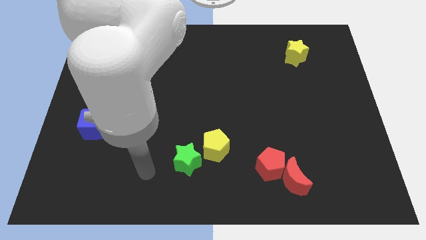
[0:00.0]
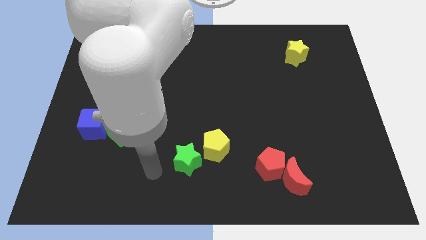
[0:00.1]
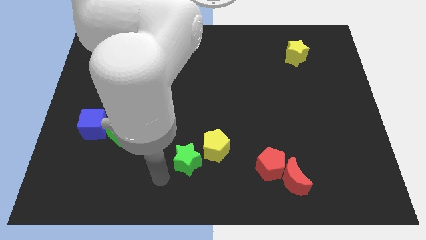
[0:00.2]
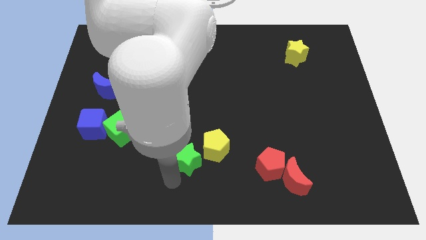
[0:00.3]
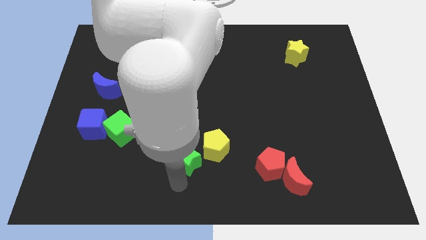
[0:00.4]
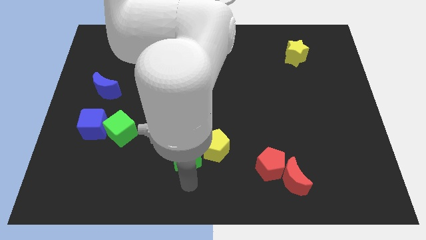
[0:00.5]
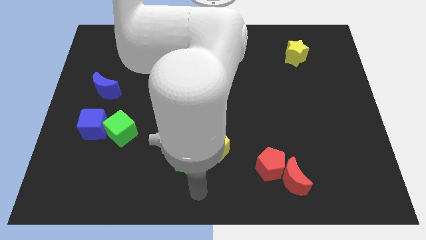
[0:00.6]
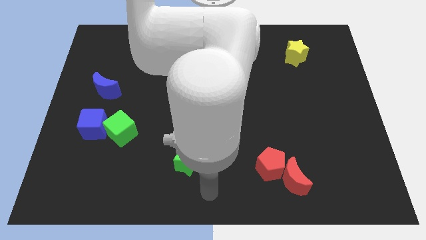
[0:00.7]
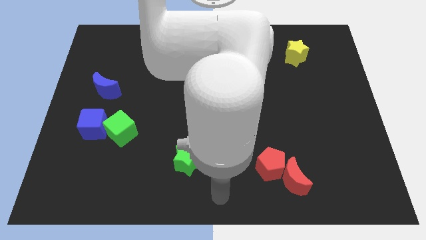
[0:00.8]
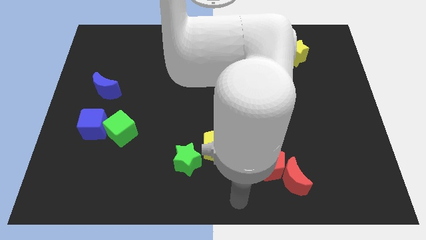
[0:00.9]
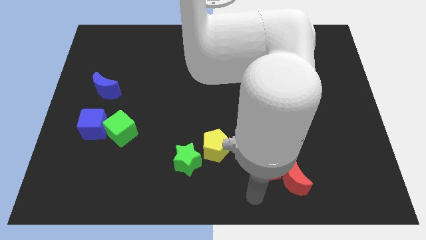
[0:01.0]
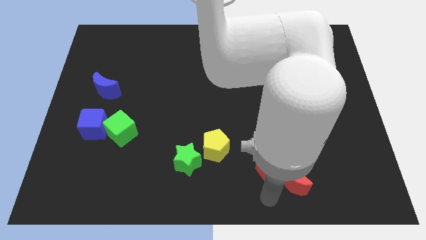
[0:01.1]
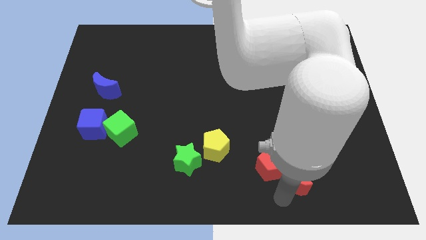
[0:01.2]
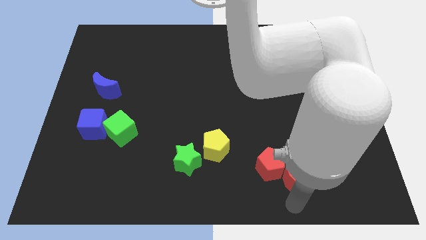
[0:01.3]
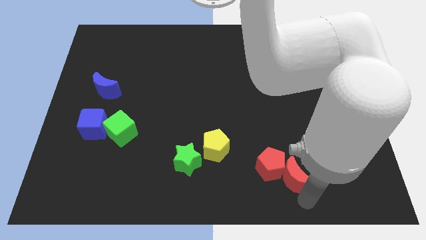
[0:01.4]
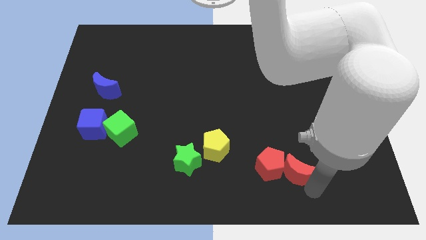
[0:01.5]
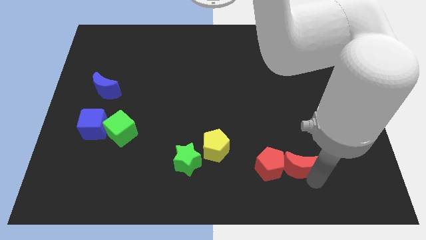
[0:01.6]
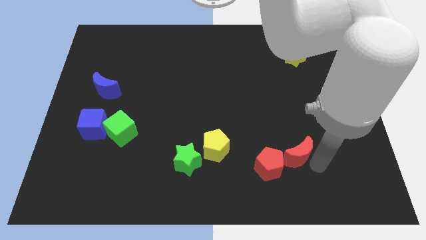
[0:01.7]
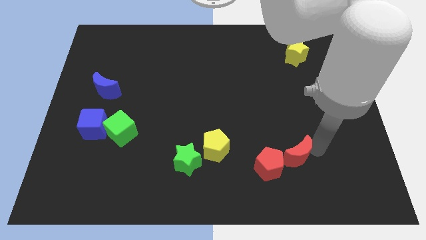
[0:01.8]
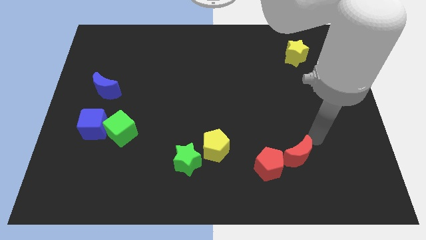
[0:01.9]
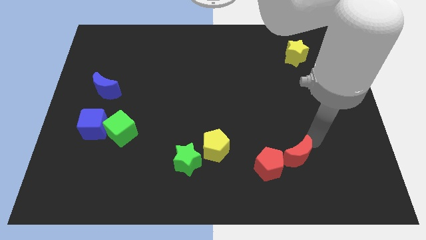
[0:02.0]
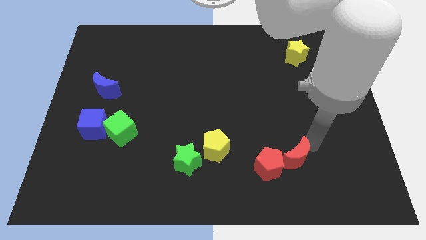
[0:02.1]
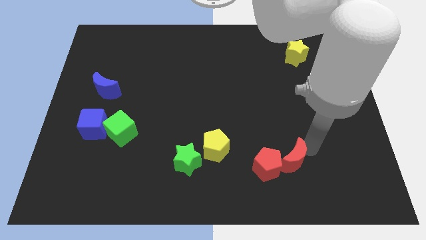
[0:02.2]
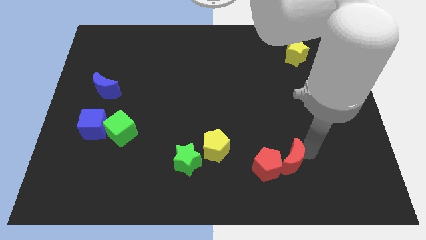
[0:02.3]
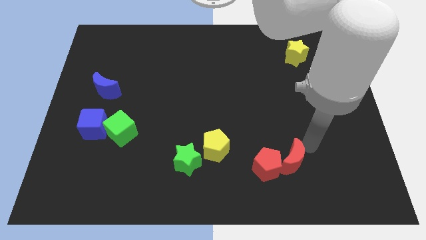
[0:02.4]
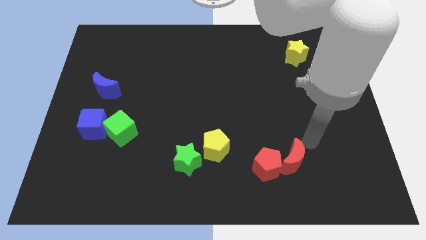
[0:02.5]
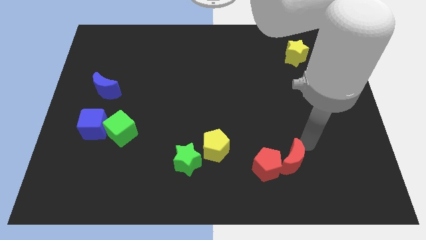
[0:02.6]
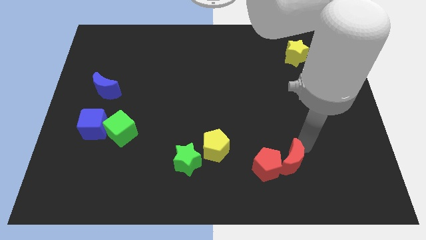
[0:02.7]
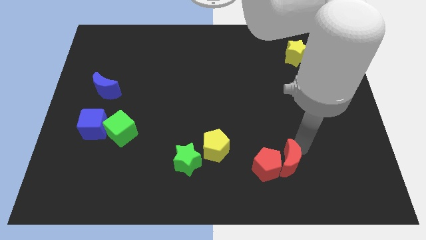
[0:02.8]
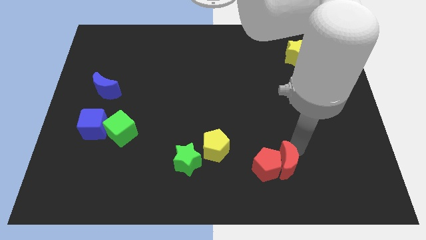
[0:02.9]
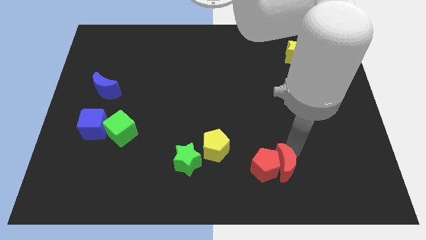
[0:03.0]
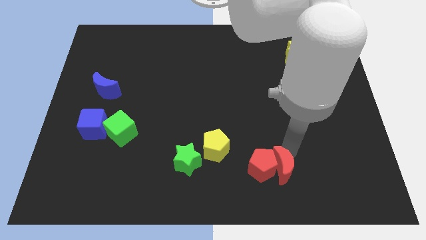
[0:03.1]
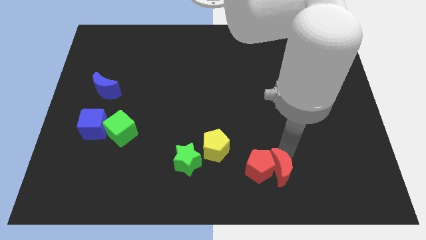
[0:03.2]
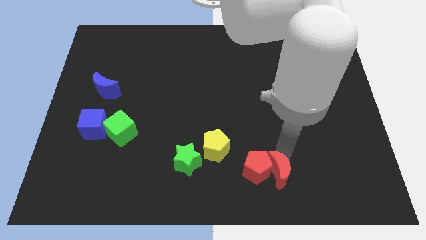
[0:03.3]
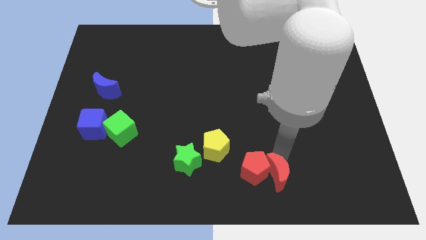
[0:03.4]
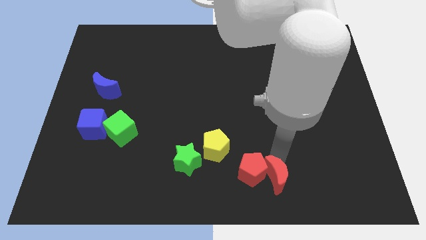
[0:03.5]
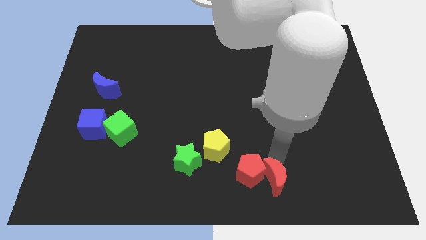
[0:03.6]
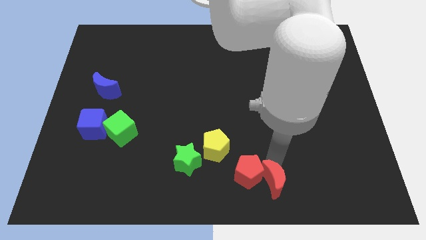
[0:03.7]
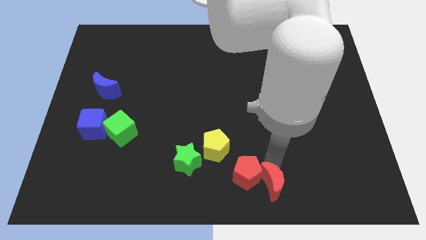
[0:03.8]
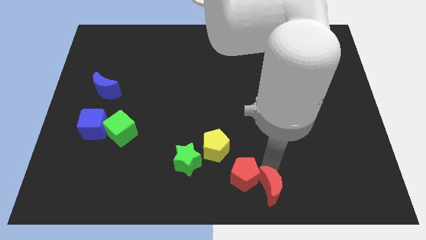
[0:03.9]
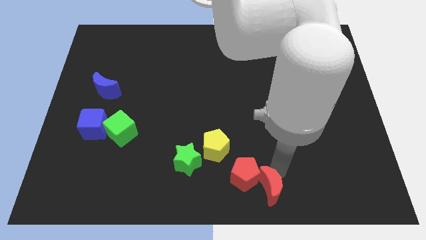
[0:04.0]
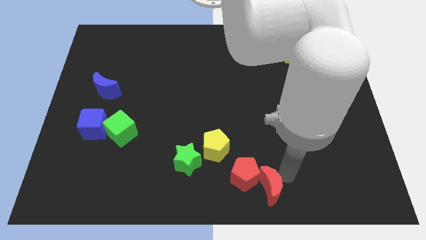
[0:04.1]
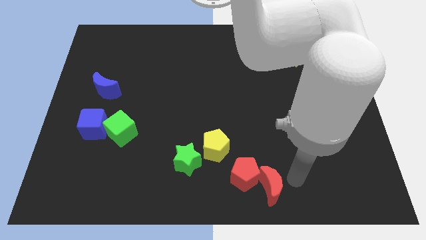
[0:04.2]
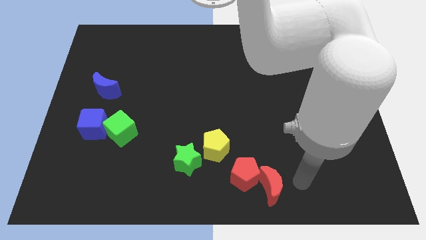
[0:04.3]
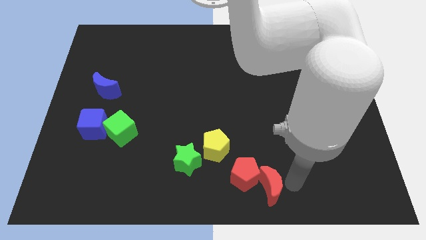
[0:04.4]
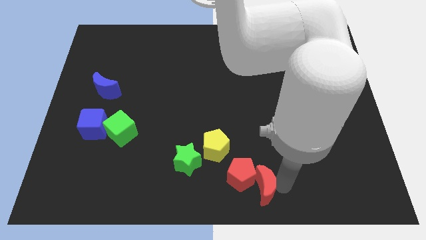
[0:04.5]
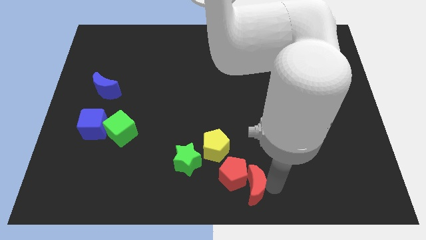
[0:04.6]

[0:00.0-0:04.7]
move the red moon a little bit to the left

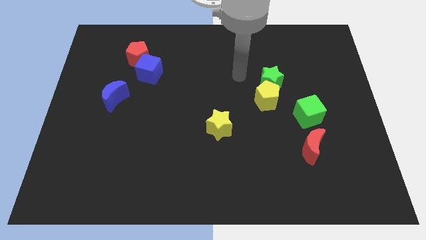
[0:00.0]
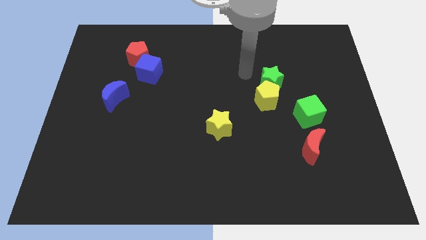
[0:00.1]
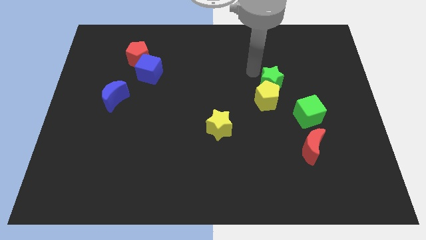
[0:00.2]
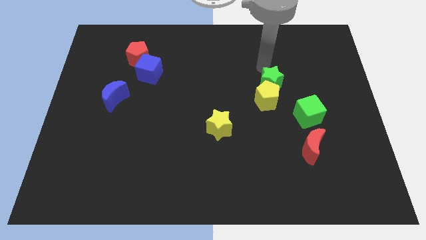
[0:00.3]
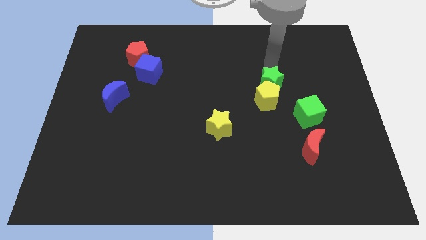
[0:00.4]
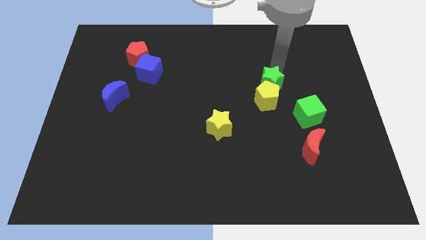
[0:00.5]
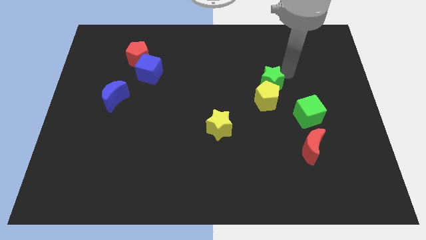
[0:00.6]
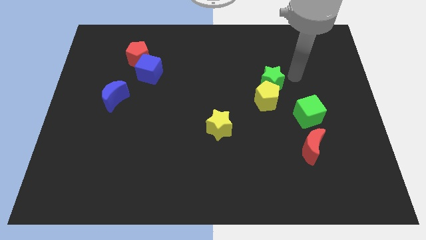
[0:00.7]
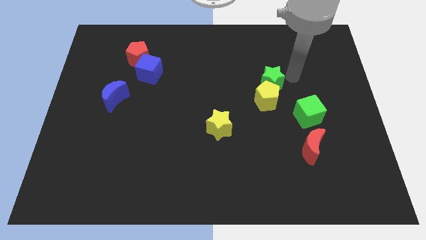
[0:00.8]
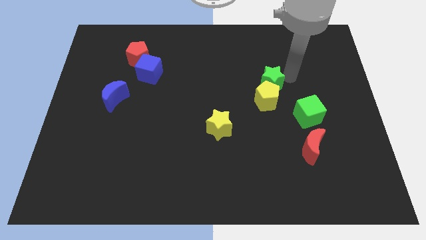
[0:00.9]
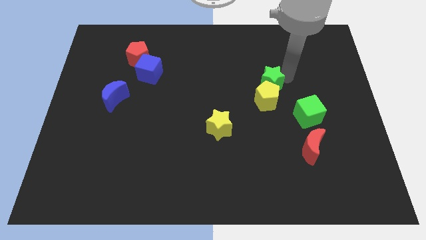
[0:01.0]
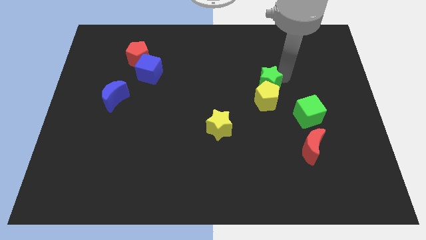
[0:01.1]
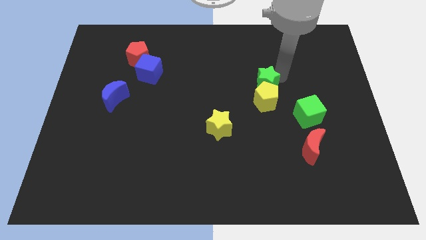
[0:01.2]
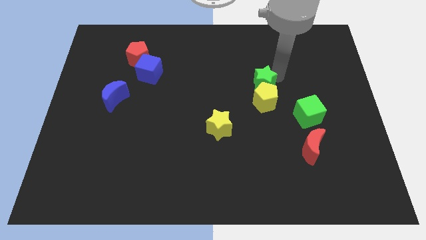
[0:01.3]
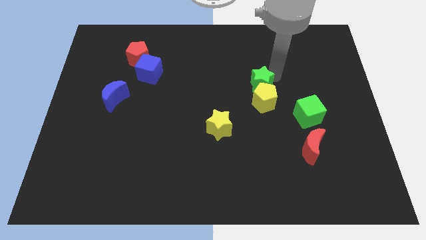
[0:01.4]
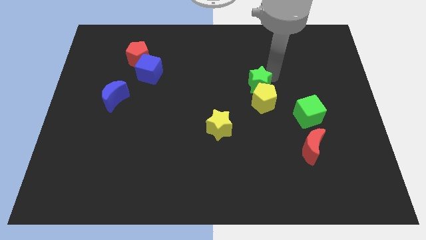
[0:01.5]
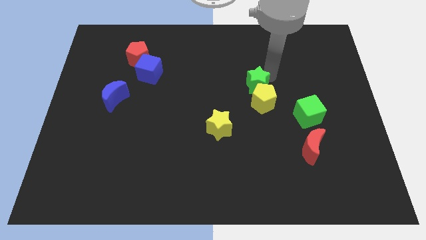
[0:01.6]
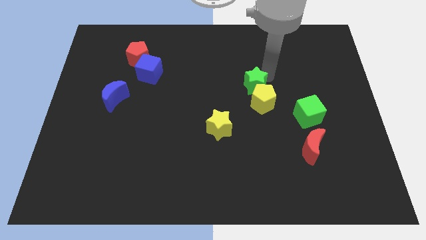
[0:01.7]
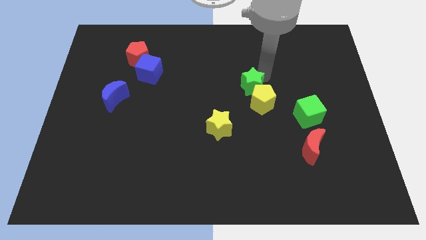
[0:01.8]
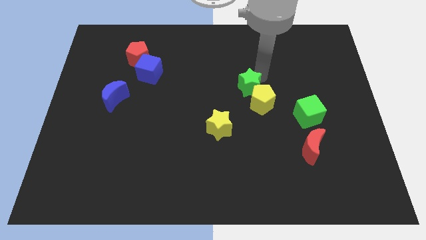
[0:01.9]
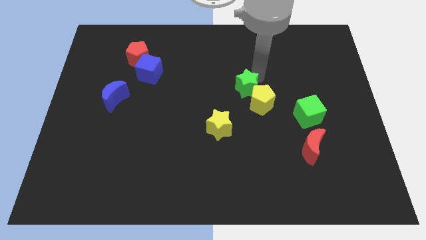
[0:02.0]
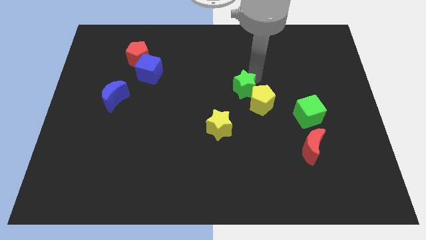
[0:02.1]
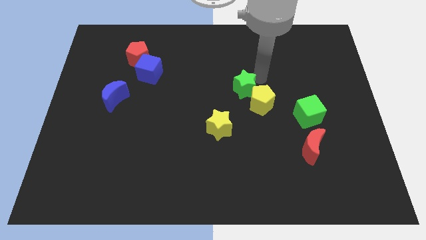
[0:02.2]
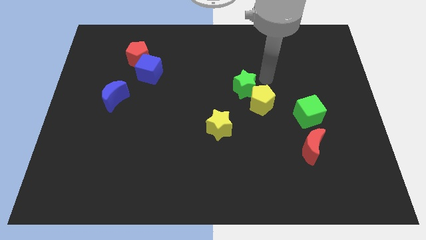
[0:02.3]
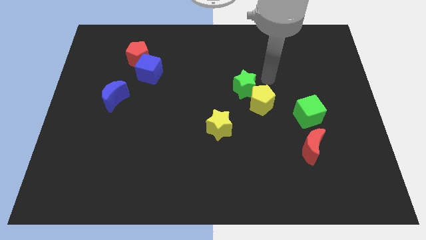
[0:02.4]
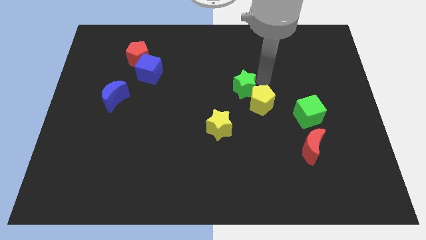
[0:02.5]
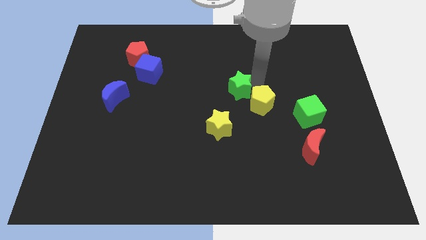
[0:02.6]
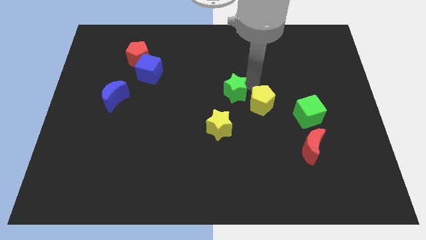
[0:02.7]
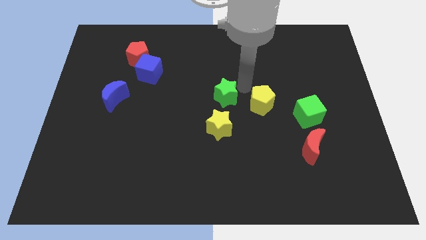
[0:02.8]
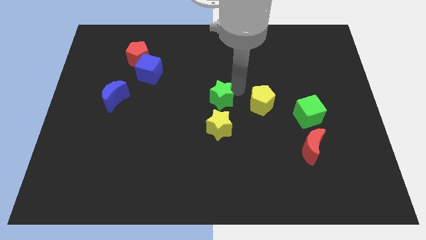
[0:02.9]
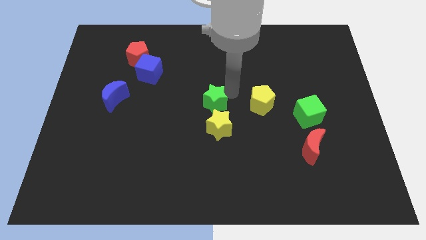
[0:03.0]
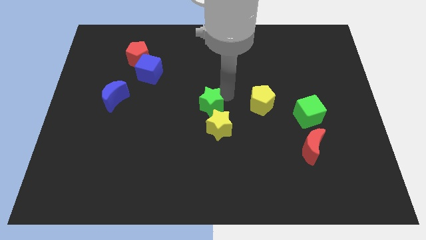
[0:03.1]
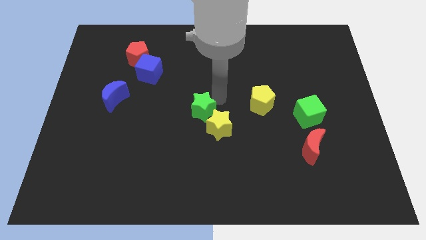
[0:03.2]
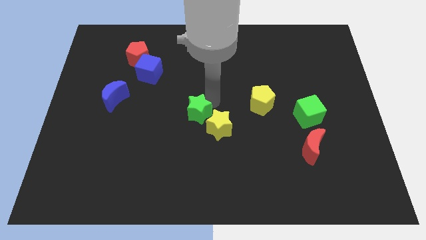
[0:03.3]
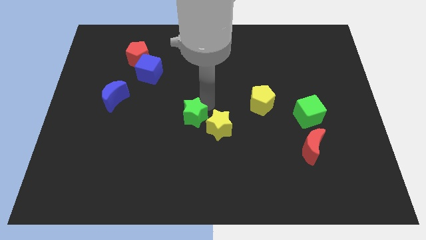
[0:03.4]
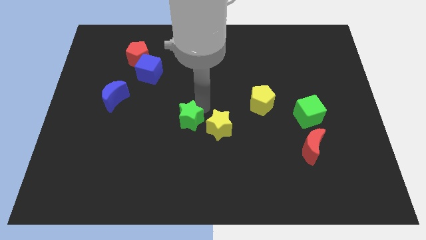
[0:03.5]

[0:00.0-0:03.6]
move the green star down and left
